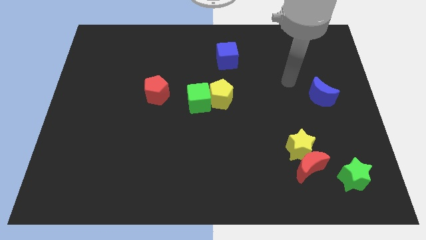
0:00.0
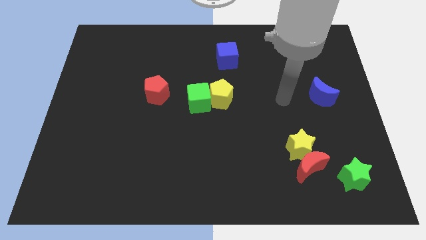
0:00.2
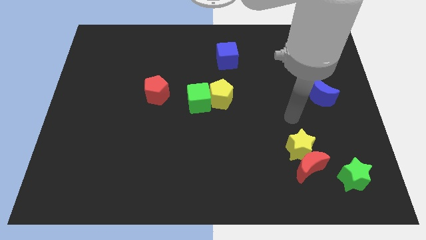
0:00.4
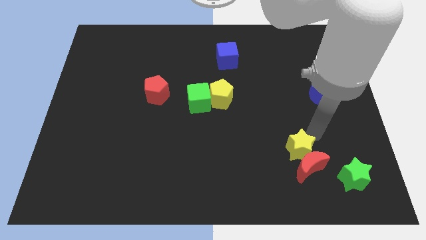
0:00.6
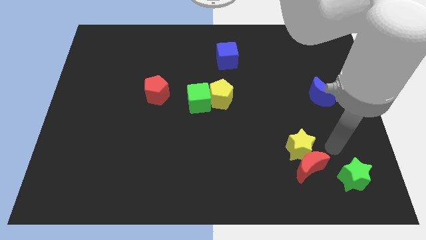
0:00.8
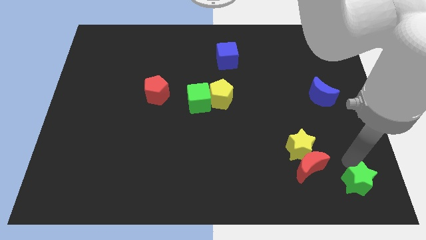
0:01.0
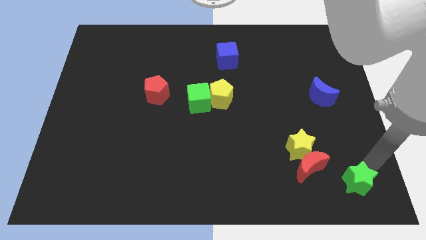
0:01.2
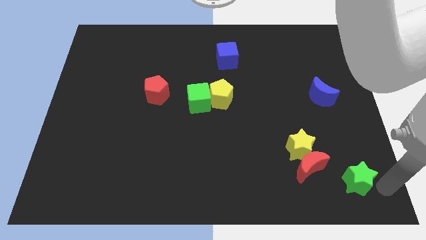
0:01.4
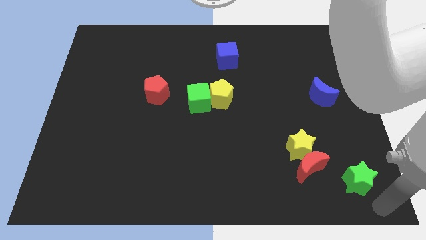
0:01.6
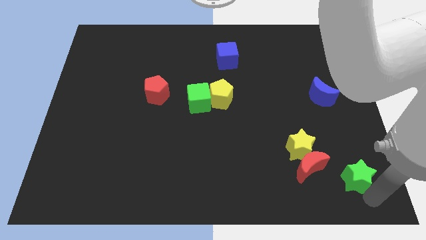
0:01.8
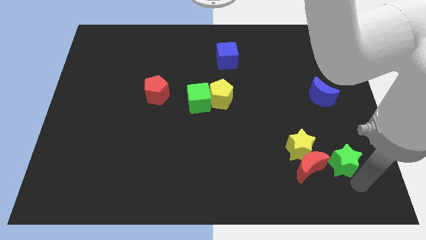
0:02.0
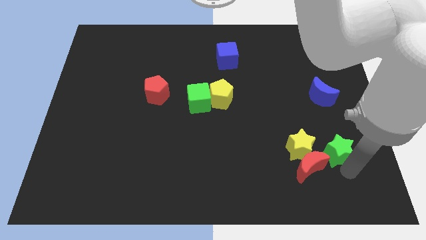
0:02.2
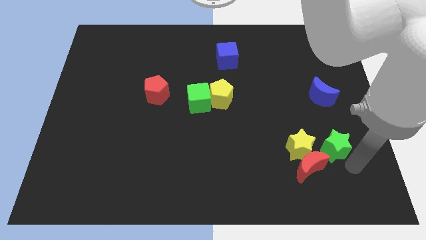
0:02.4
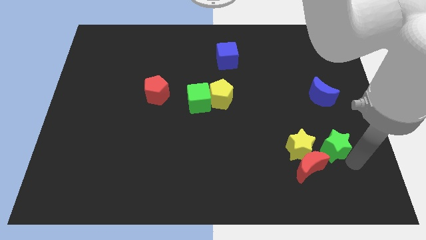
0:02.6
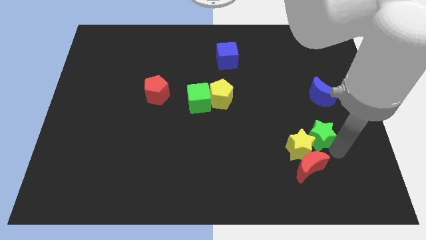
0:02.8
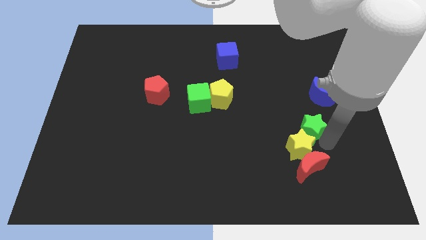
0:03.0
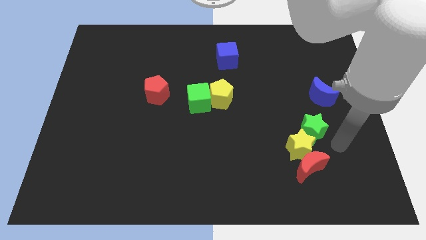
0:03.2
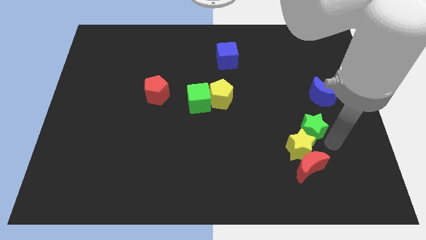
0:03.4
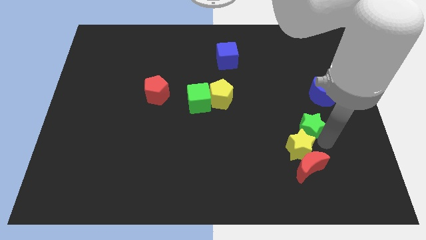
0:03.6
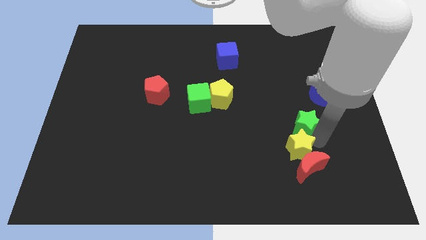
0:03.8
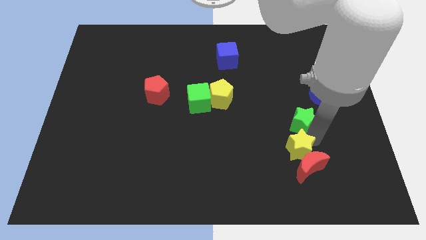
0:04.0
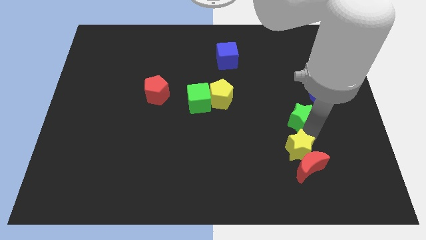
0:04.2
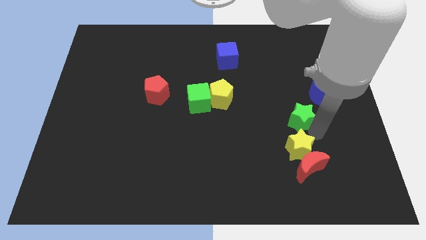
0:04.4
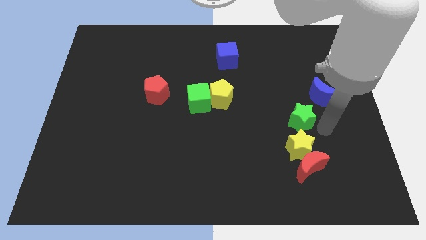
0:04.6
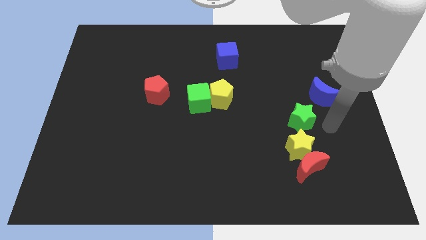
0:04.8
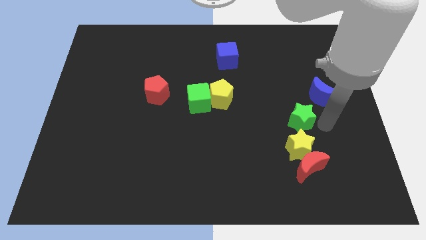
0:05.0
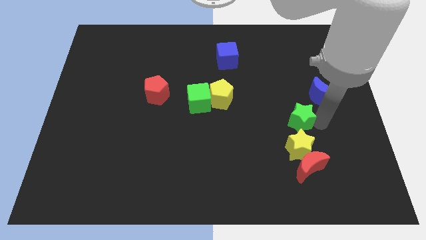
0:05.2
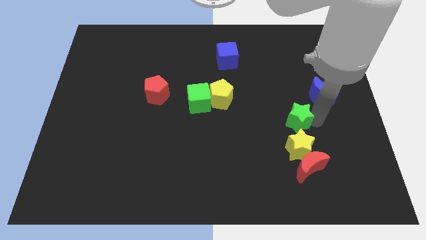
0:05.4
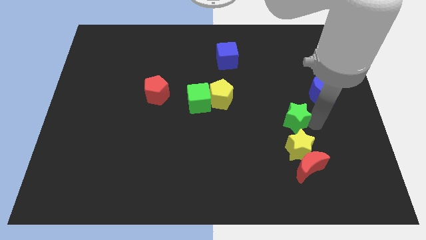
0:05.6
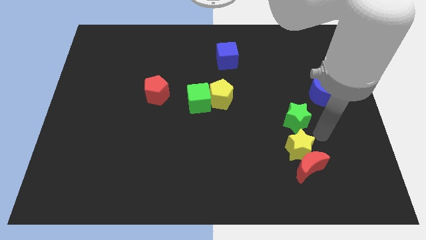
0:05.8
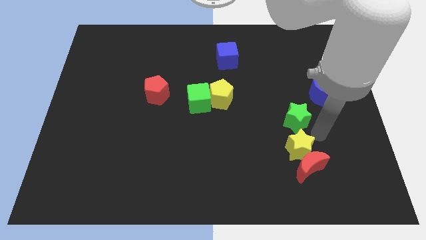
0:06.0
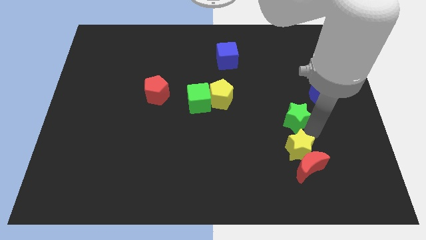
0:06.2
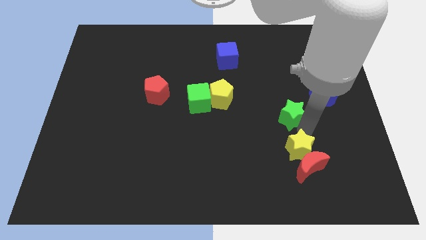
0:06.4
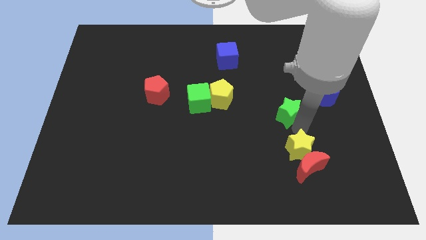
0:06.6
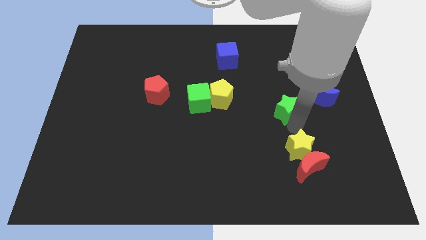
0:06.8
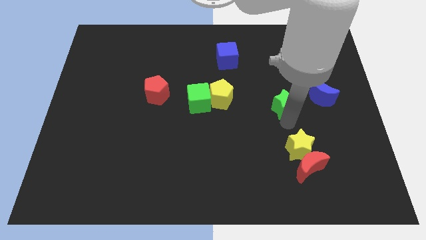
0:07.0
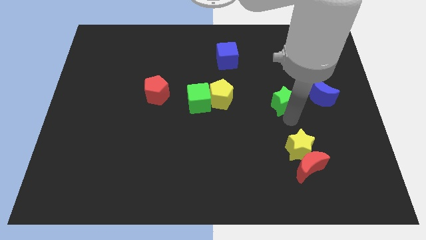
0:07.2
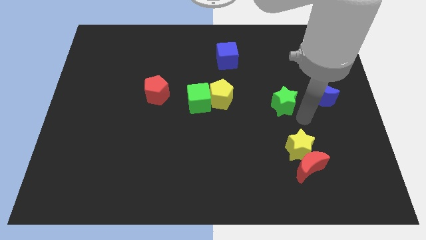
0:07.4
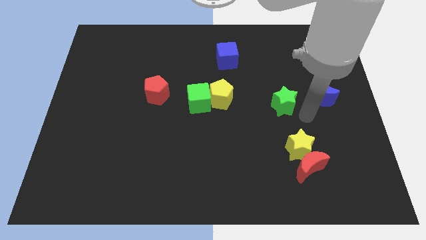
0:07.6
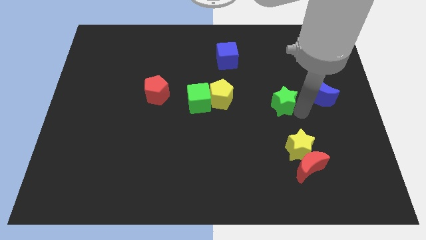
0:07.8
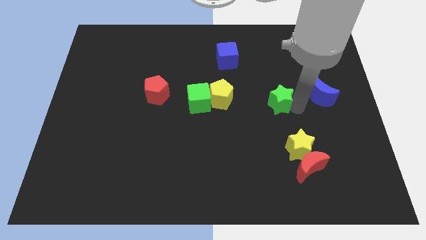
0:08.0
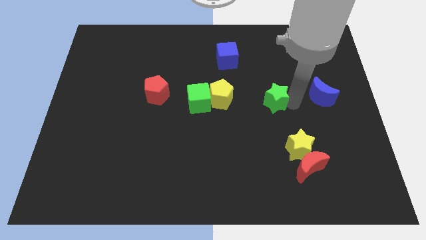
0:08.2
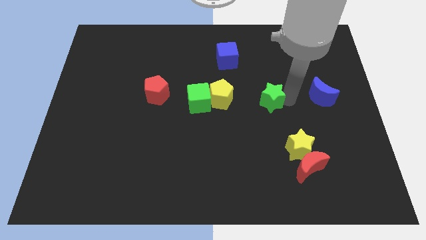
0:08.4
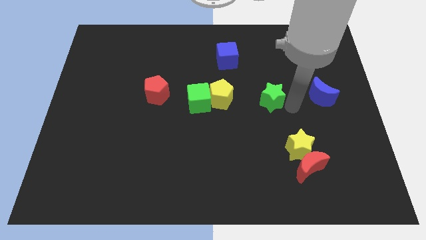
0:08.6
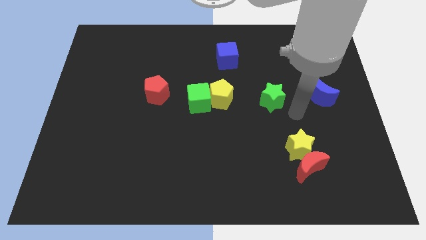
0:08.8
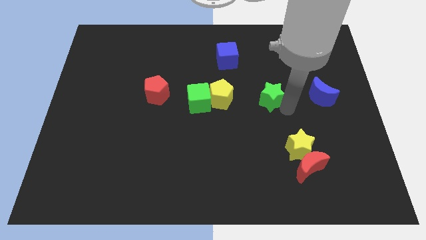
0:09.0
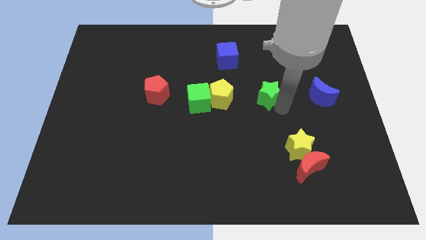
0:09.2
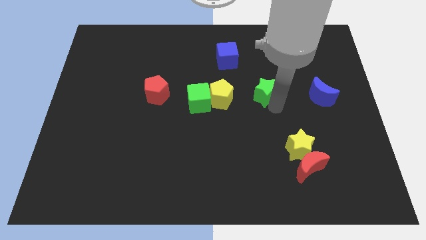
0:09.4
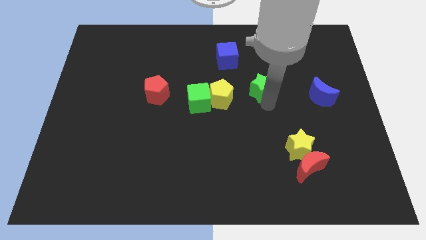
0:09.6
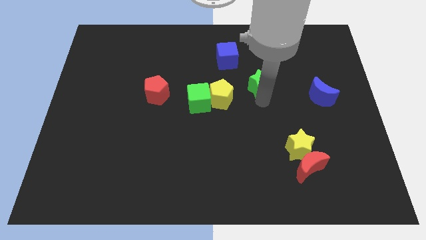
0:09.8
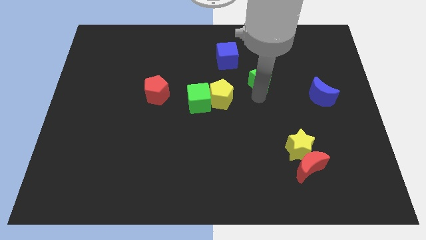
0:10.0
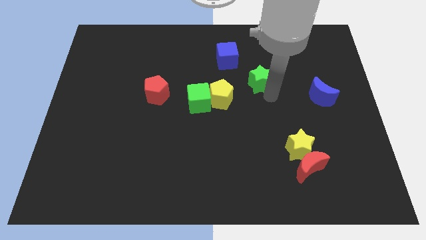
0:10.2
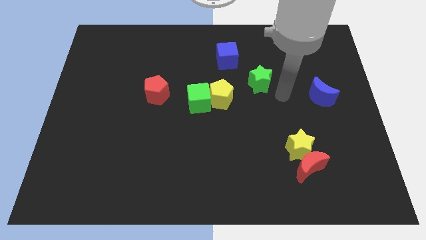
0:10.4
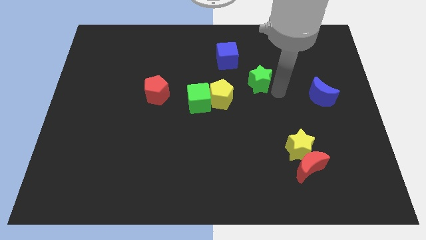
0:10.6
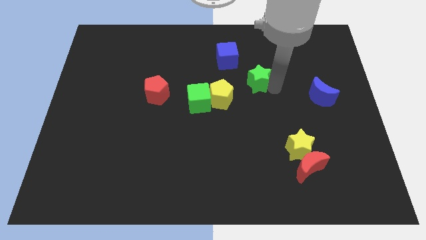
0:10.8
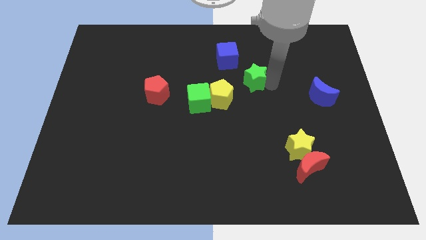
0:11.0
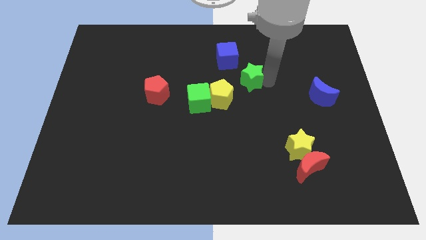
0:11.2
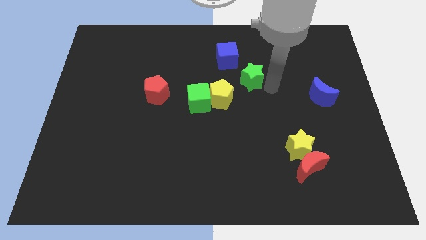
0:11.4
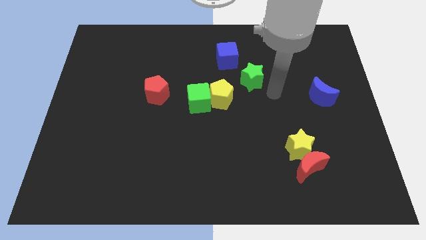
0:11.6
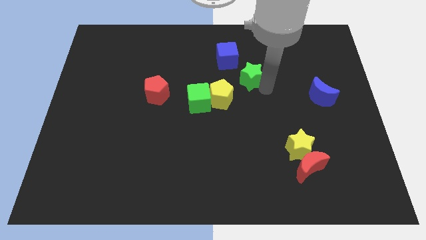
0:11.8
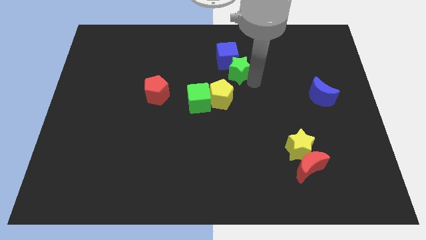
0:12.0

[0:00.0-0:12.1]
slide the green star next to the blue cube

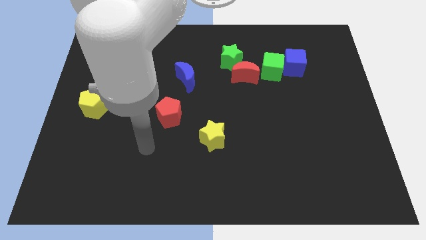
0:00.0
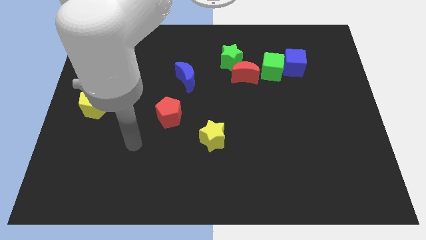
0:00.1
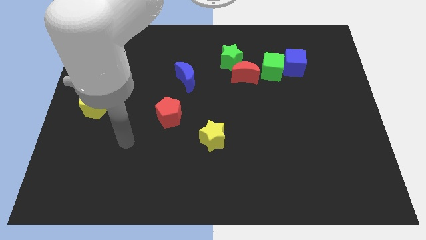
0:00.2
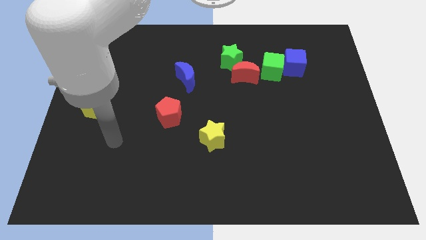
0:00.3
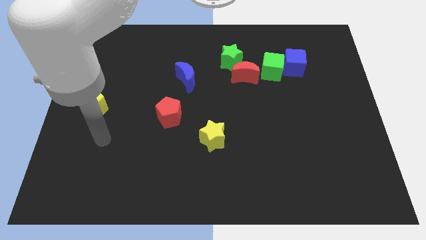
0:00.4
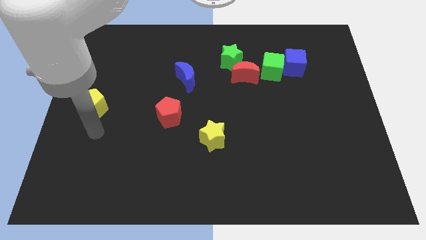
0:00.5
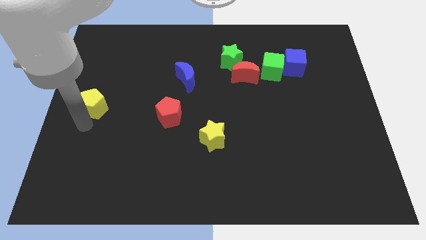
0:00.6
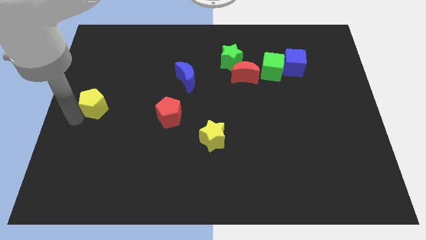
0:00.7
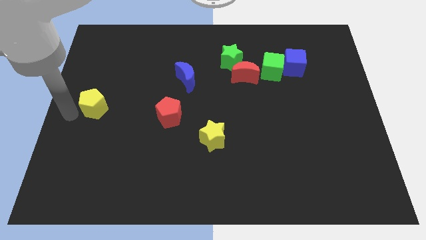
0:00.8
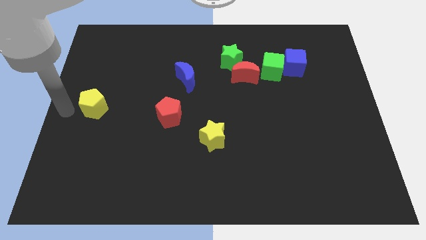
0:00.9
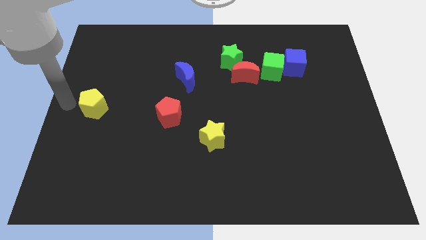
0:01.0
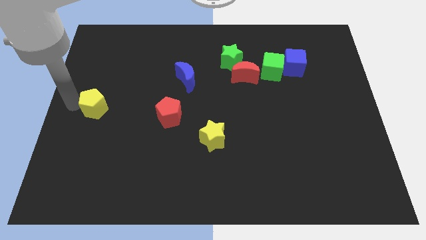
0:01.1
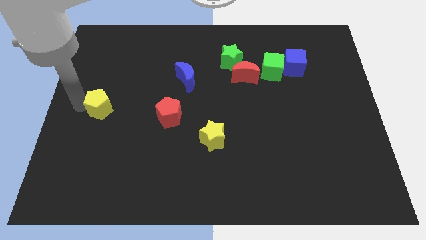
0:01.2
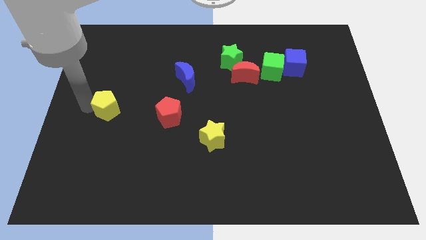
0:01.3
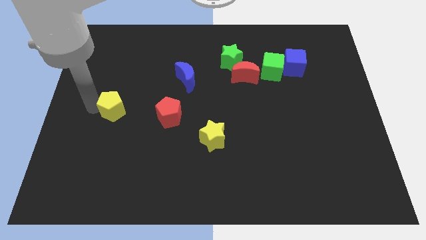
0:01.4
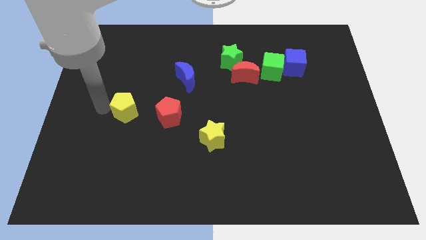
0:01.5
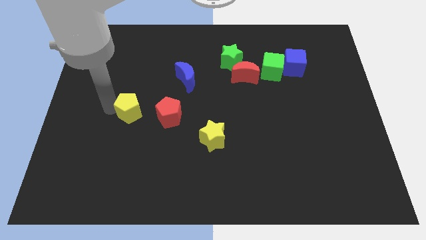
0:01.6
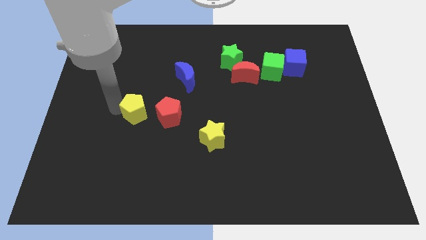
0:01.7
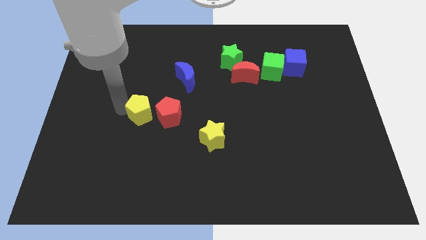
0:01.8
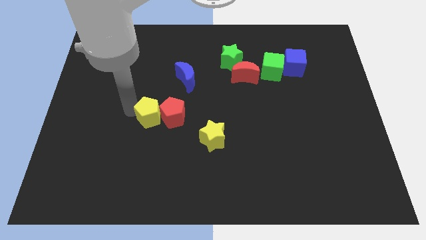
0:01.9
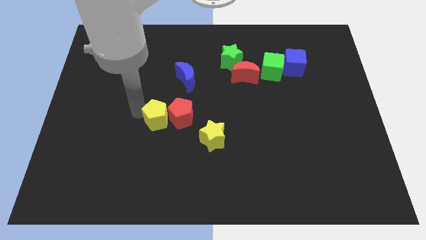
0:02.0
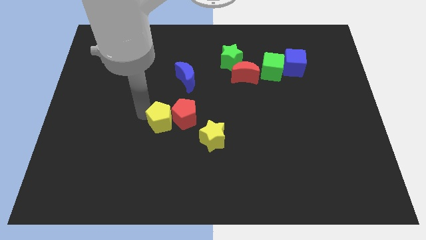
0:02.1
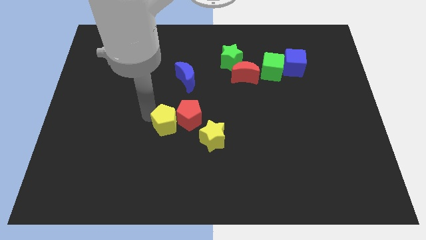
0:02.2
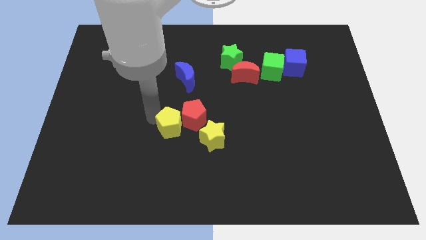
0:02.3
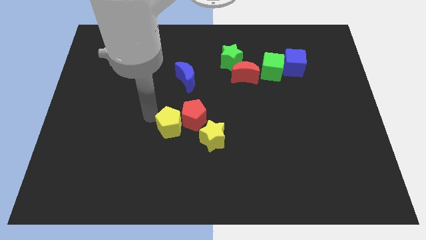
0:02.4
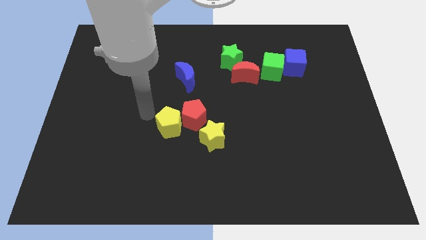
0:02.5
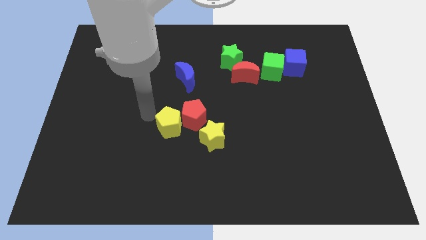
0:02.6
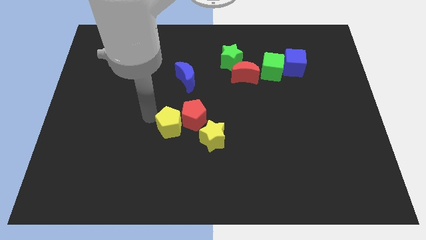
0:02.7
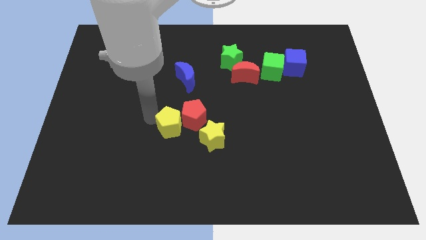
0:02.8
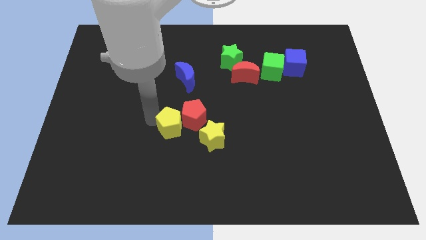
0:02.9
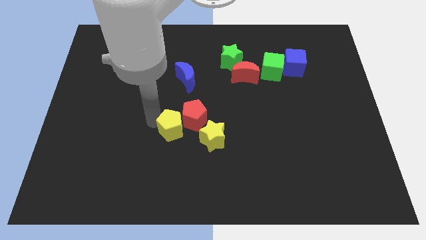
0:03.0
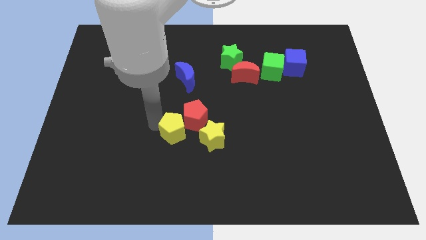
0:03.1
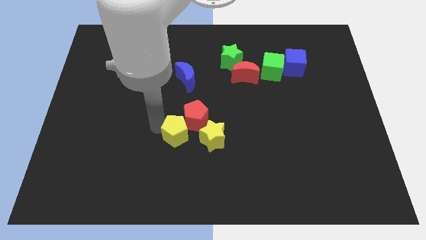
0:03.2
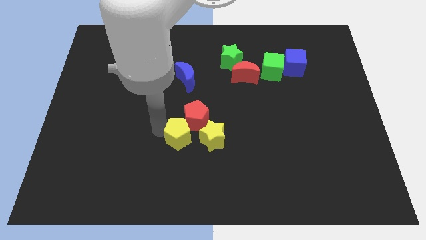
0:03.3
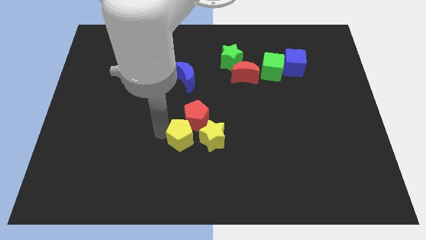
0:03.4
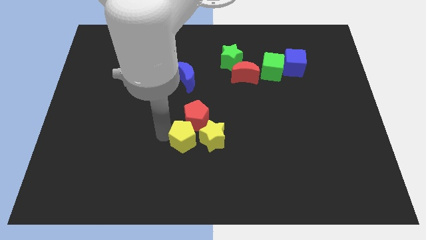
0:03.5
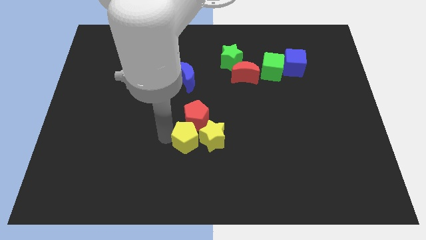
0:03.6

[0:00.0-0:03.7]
slide the yellow pentagon close to the yellow star
